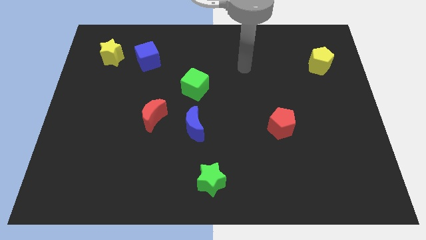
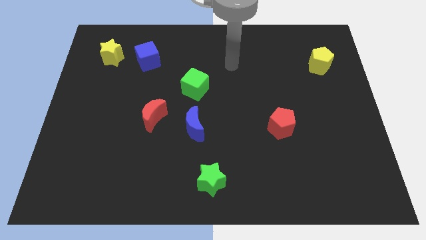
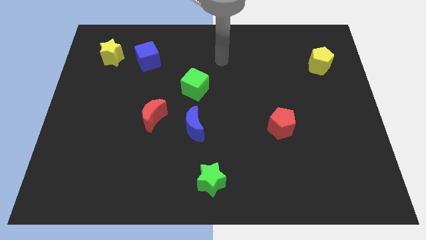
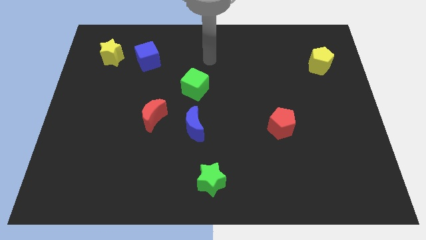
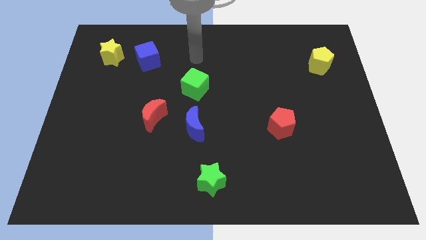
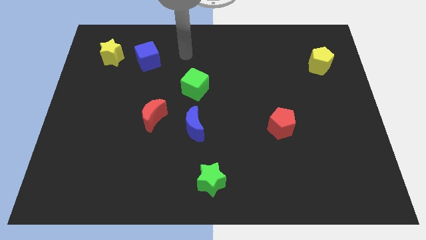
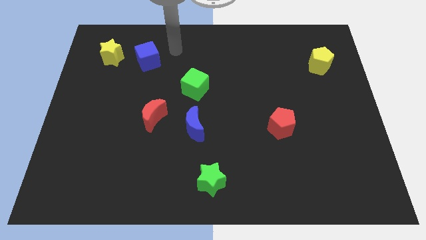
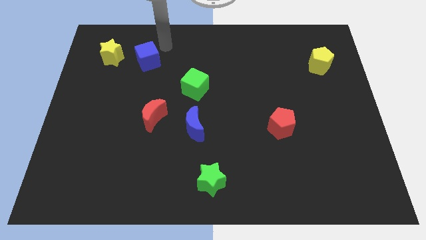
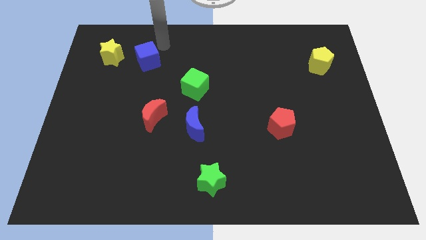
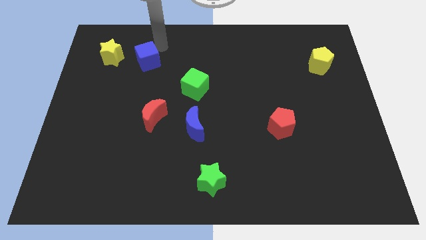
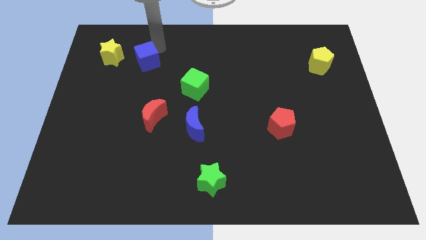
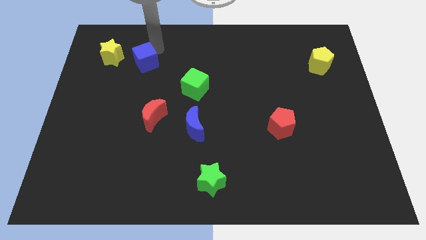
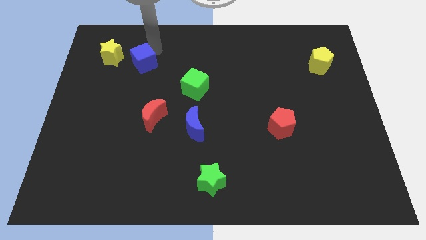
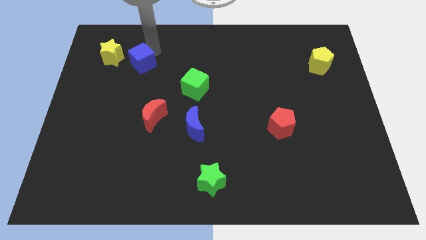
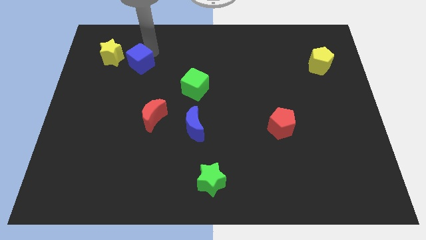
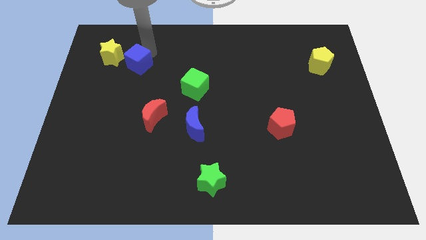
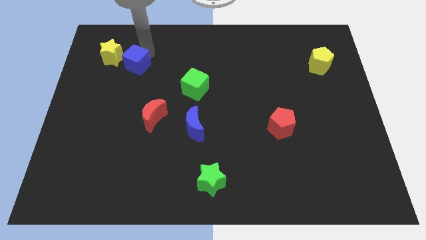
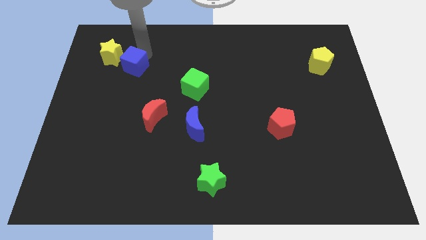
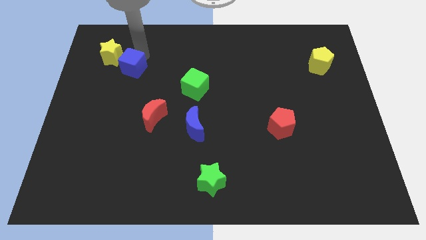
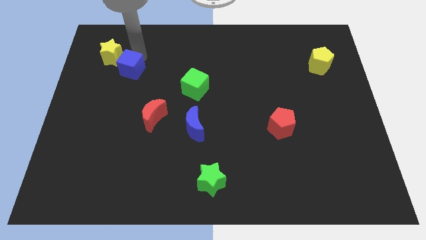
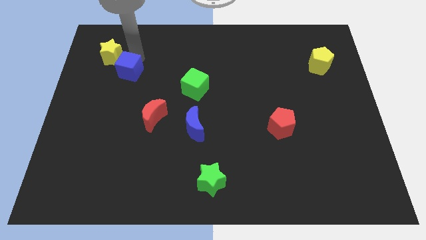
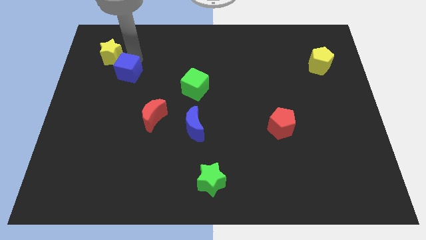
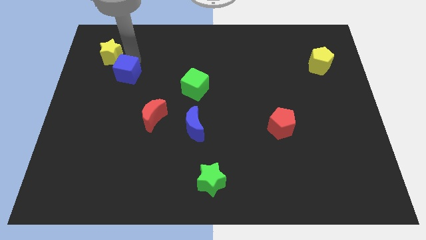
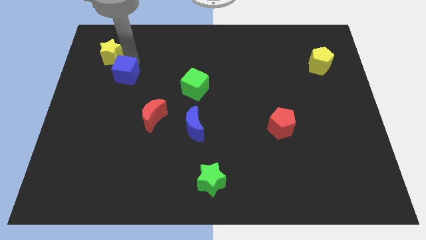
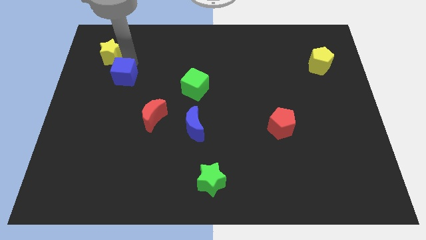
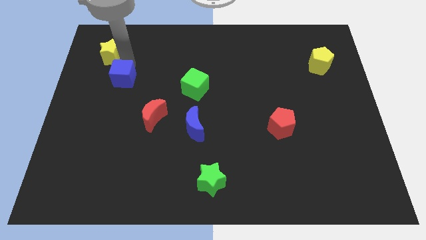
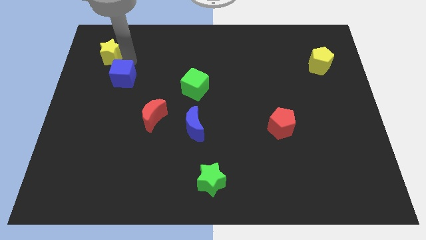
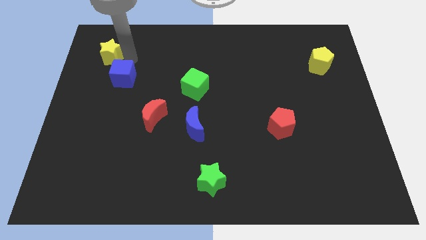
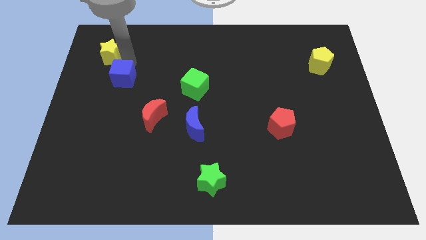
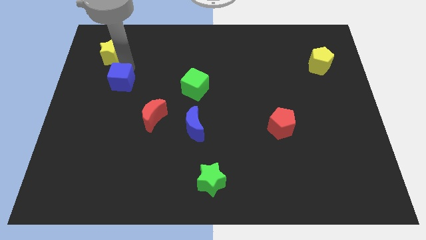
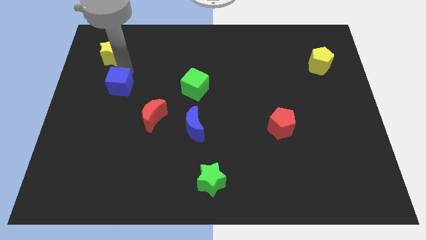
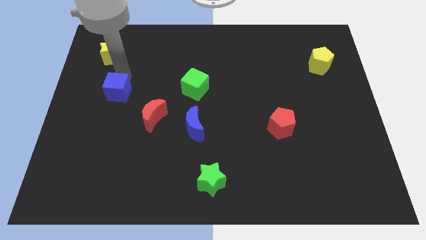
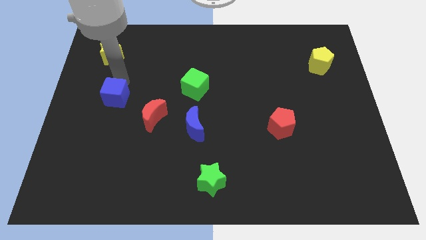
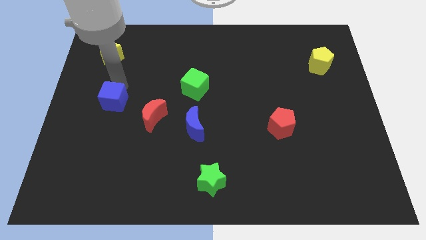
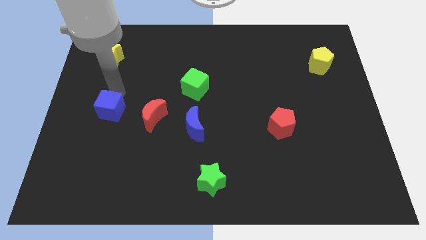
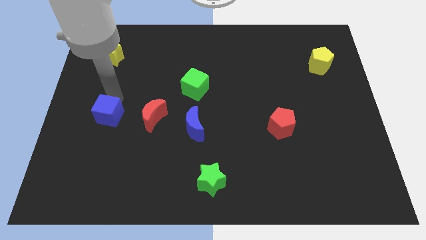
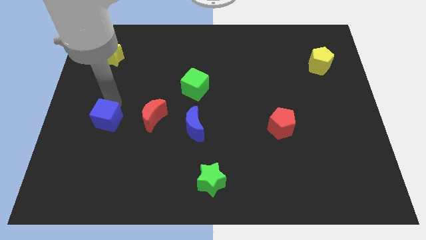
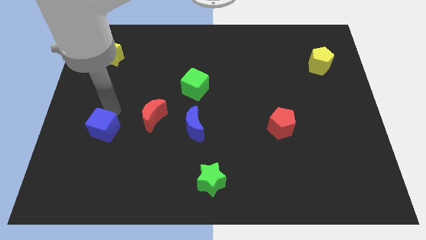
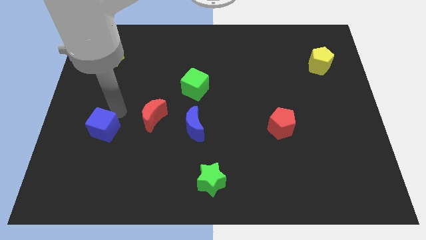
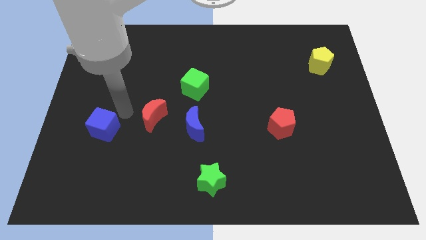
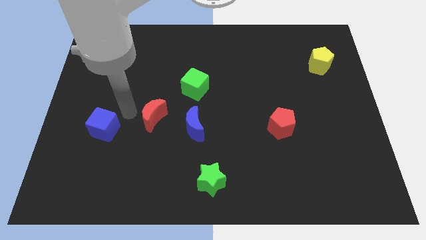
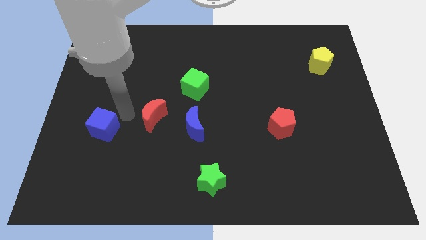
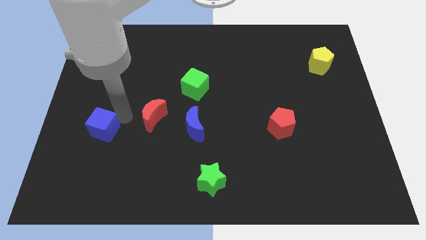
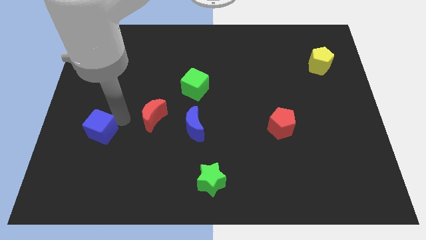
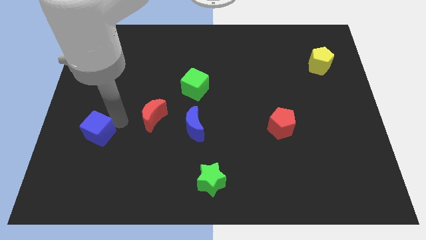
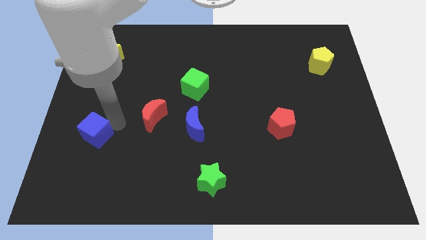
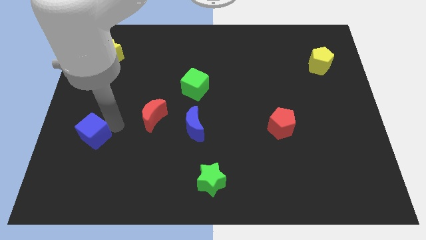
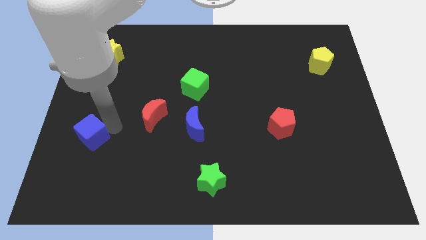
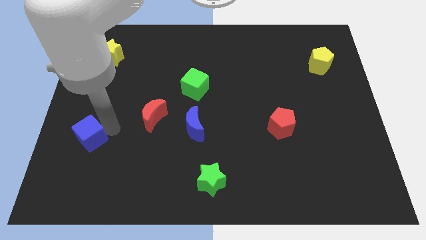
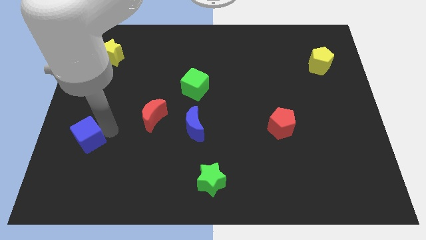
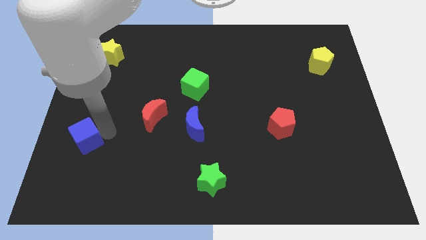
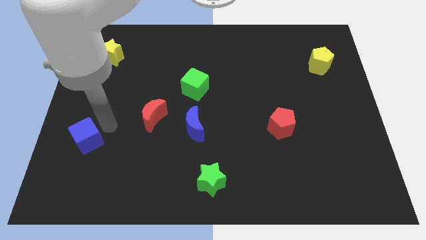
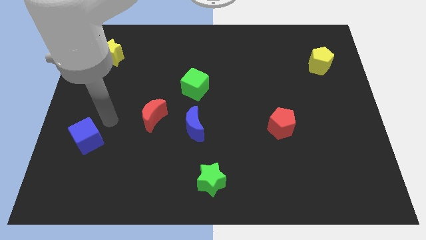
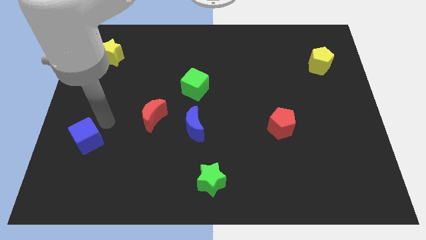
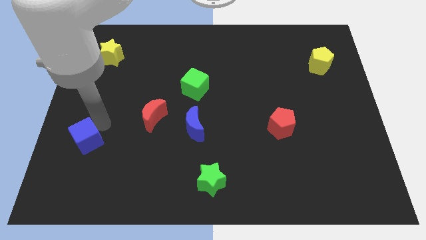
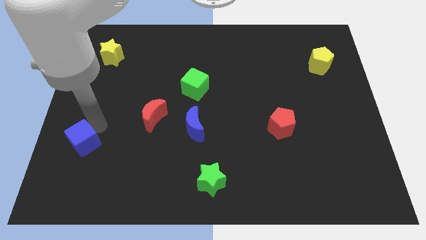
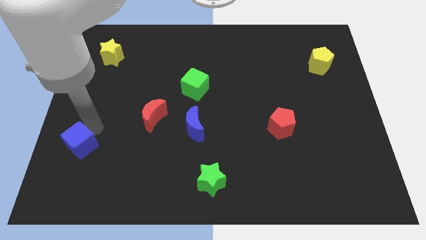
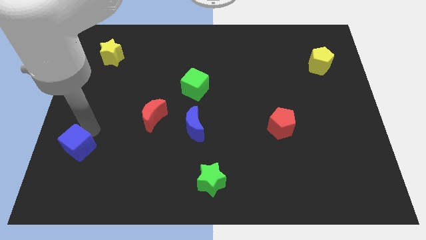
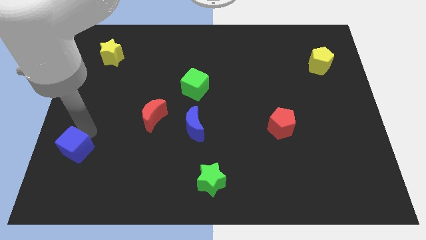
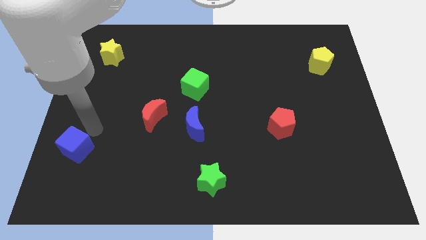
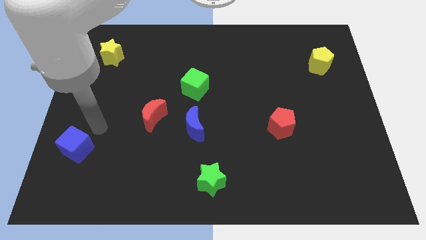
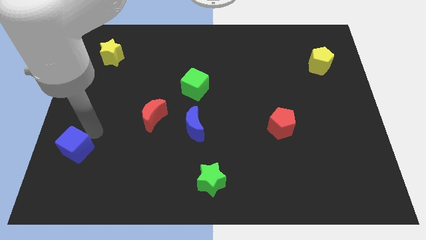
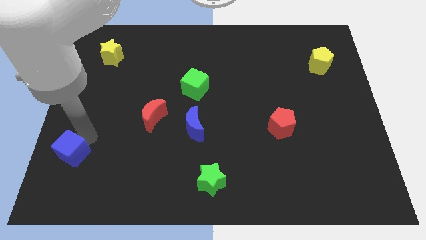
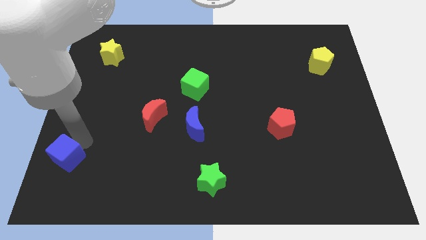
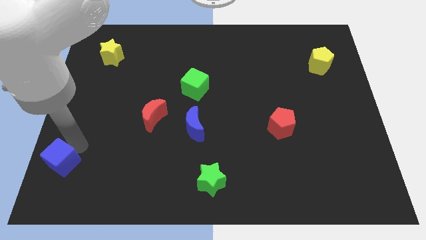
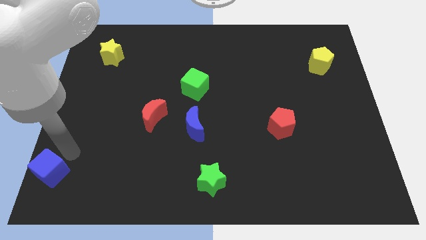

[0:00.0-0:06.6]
put the blue cube to the lower left corner
